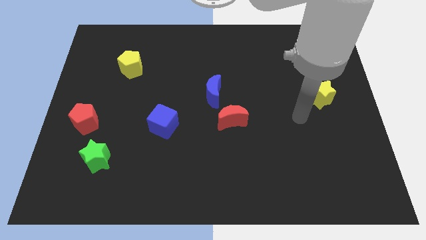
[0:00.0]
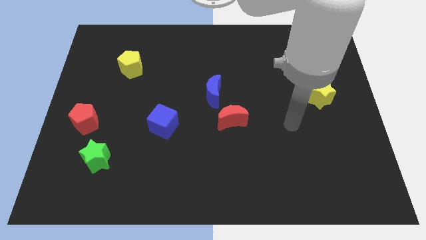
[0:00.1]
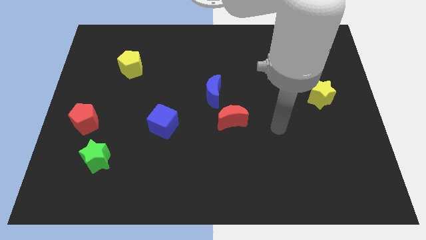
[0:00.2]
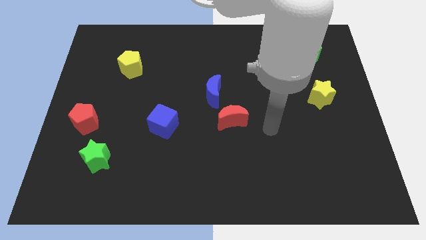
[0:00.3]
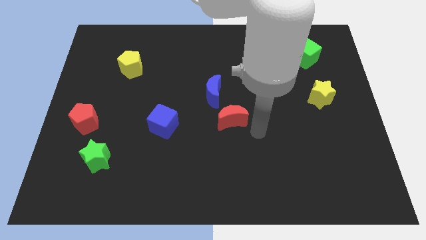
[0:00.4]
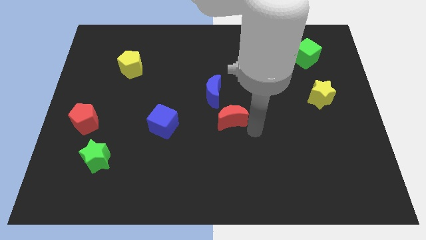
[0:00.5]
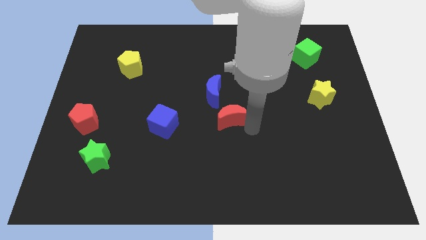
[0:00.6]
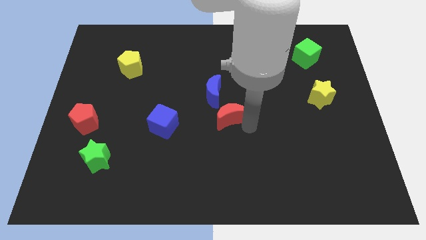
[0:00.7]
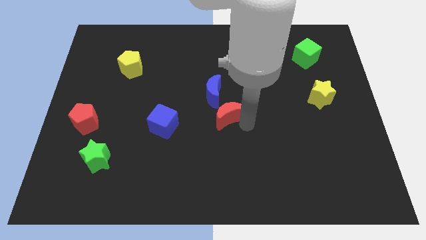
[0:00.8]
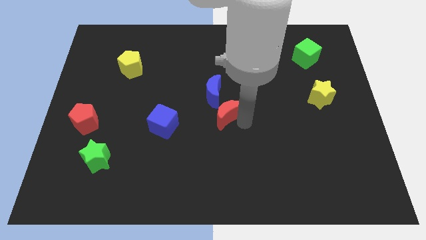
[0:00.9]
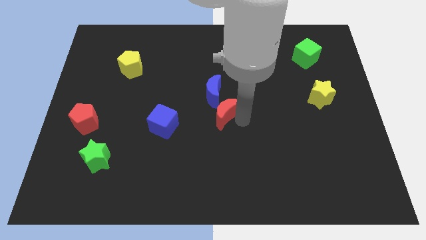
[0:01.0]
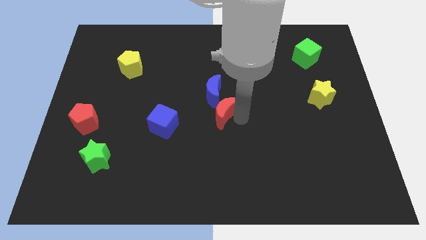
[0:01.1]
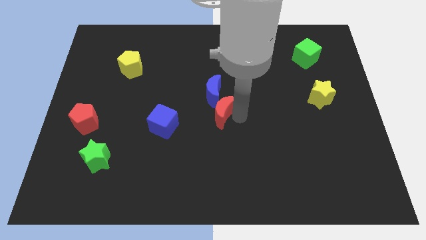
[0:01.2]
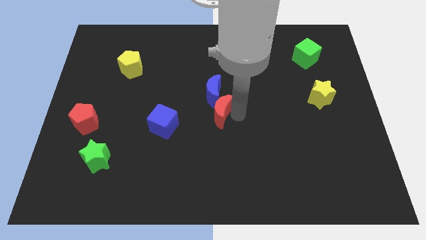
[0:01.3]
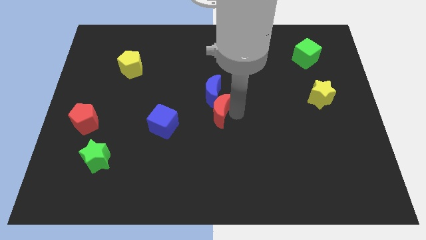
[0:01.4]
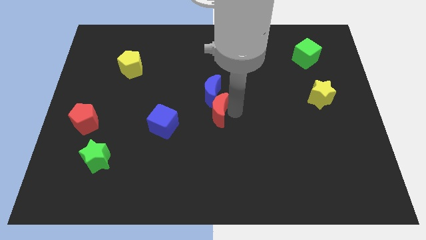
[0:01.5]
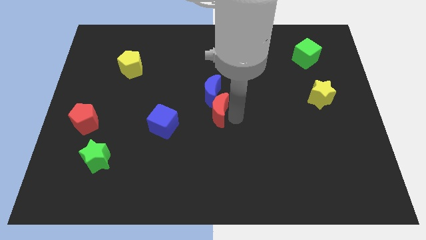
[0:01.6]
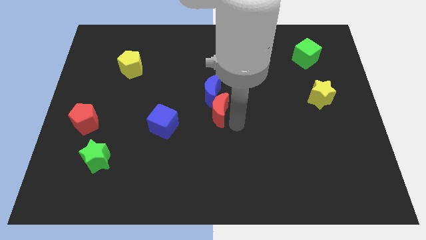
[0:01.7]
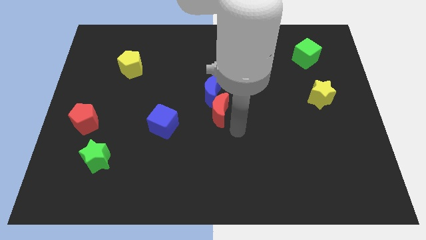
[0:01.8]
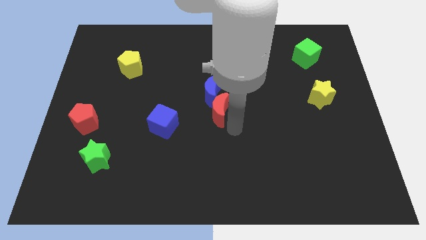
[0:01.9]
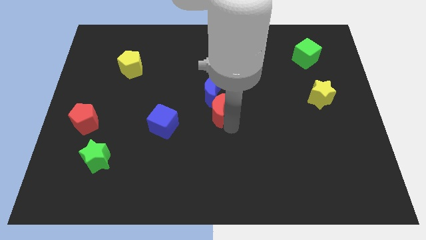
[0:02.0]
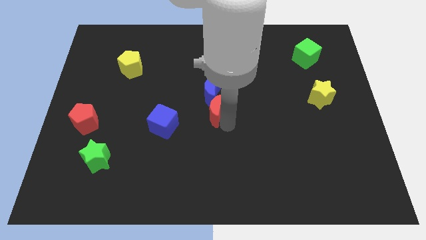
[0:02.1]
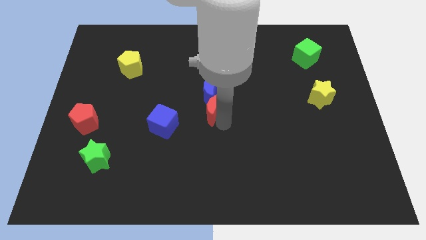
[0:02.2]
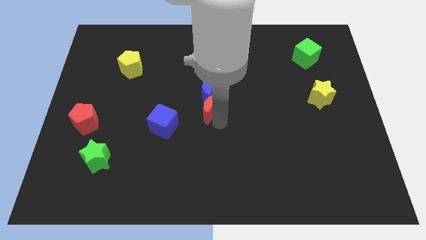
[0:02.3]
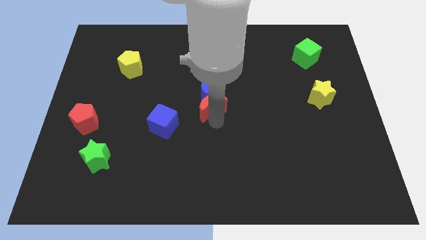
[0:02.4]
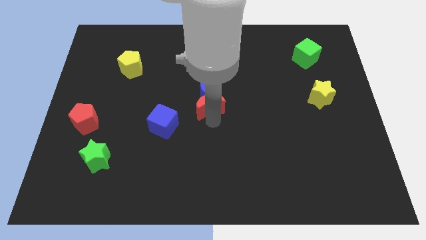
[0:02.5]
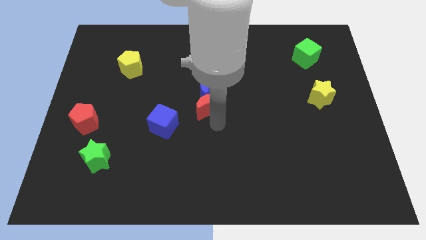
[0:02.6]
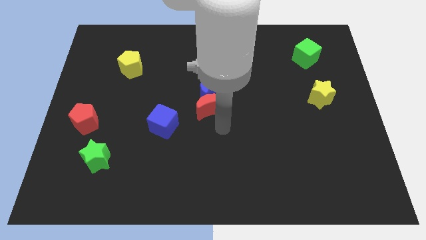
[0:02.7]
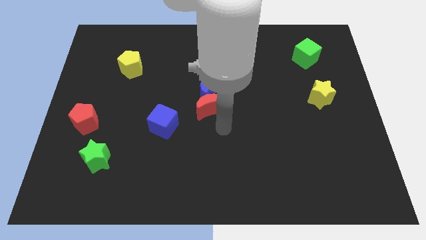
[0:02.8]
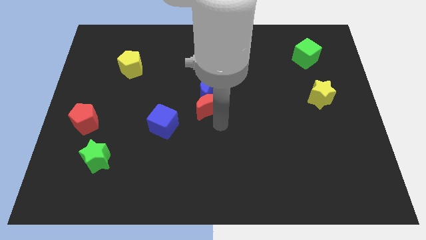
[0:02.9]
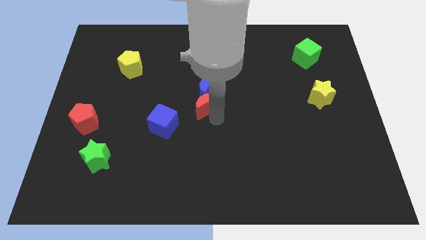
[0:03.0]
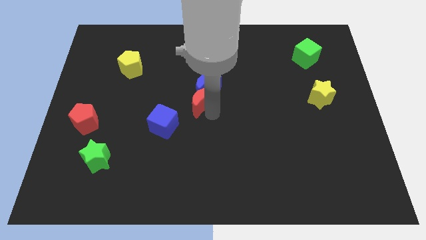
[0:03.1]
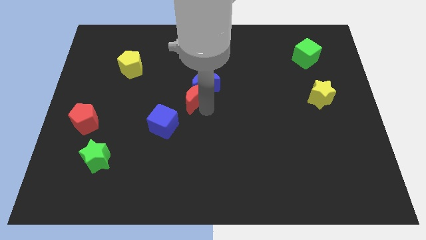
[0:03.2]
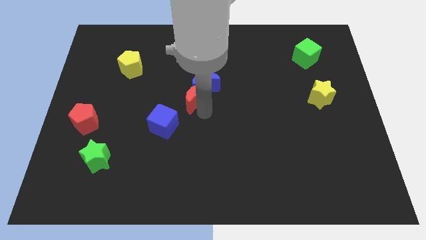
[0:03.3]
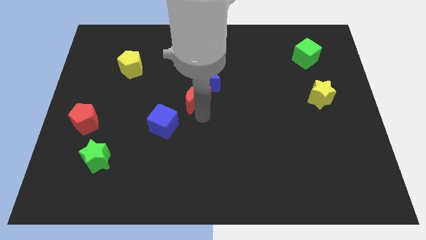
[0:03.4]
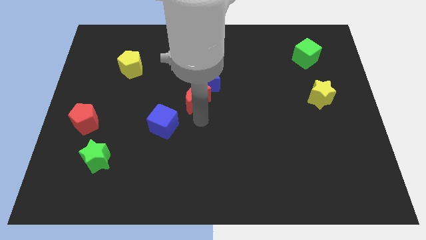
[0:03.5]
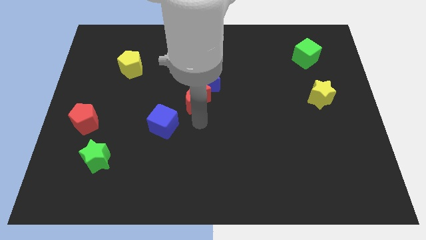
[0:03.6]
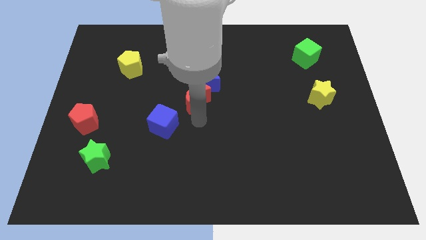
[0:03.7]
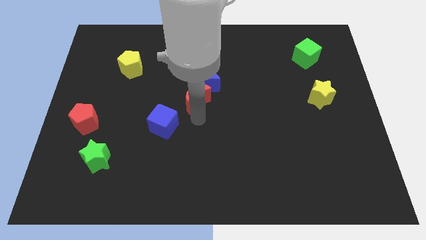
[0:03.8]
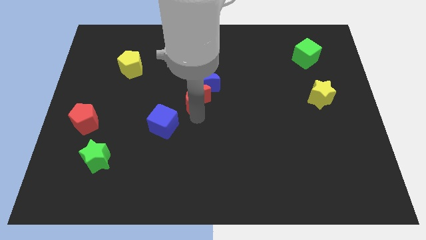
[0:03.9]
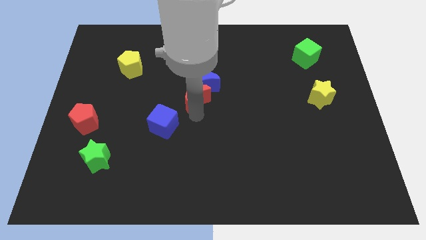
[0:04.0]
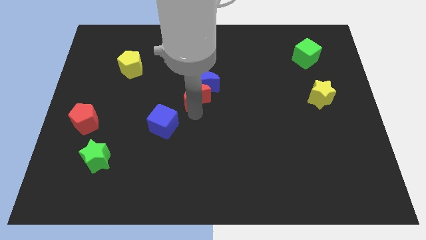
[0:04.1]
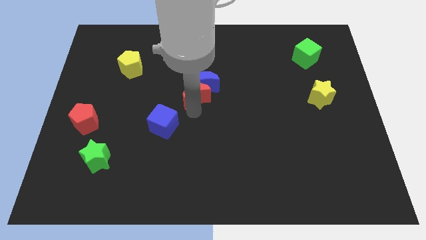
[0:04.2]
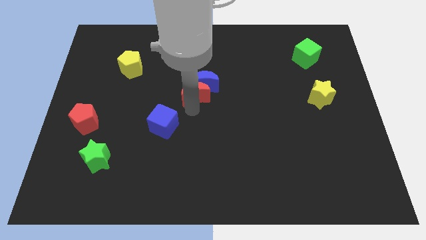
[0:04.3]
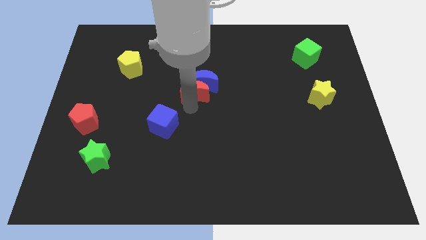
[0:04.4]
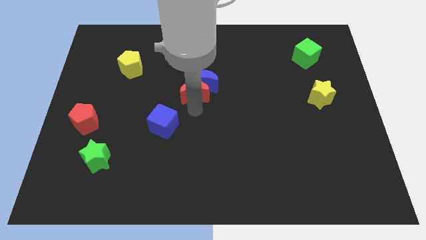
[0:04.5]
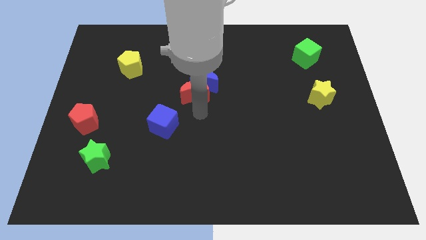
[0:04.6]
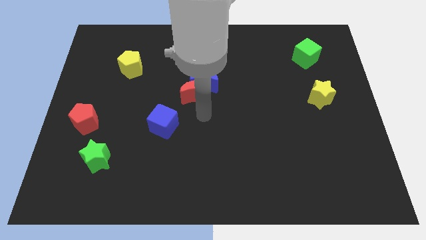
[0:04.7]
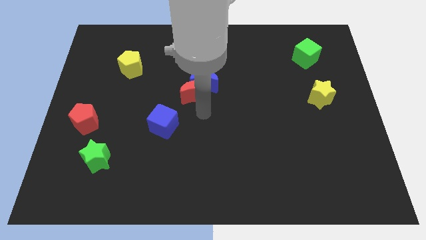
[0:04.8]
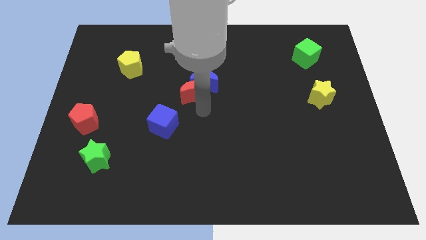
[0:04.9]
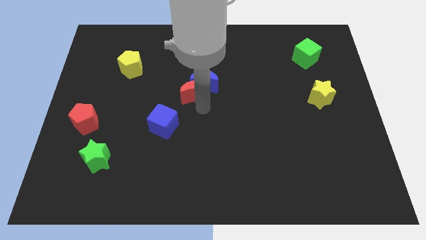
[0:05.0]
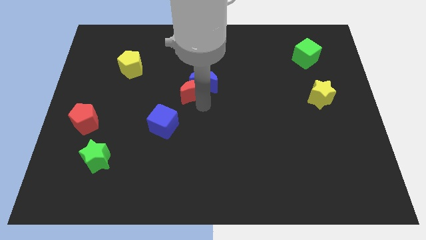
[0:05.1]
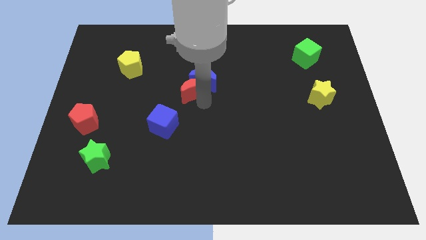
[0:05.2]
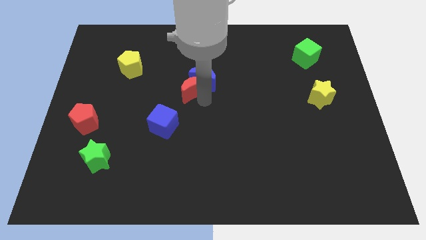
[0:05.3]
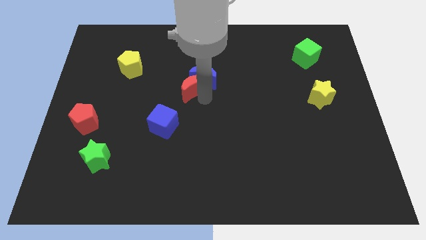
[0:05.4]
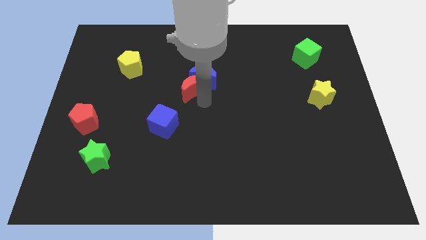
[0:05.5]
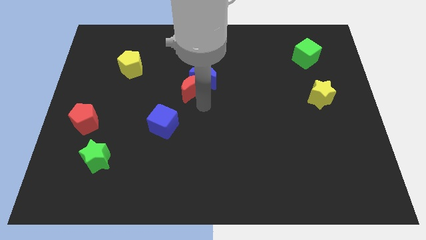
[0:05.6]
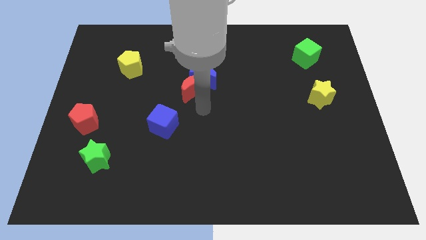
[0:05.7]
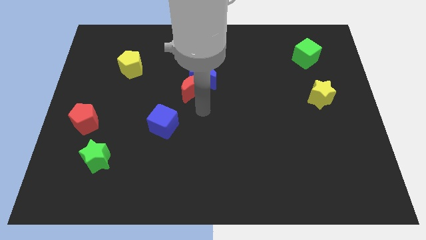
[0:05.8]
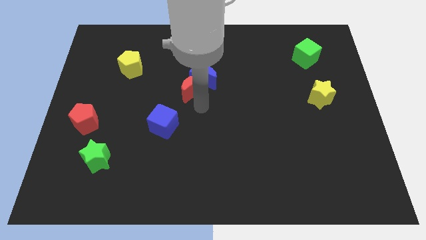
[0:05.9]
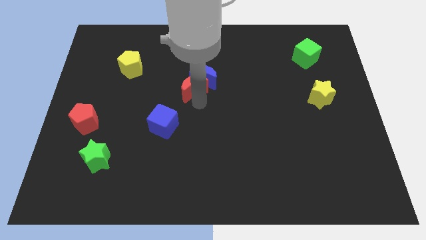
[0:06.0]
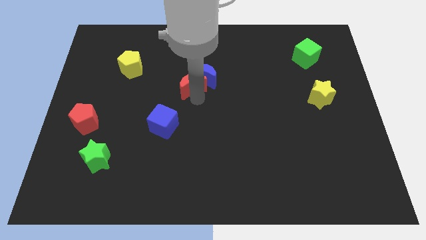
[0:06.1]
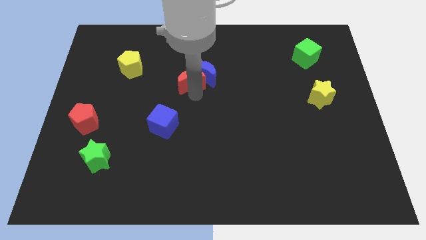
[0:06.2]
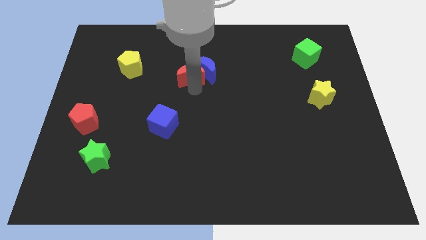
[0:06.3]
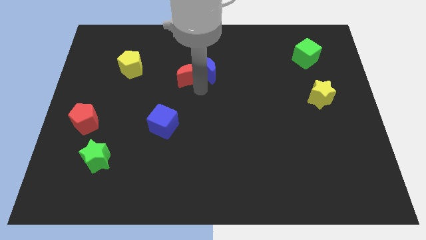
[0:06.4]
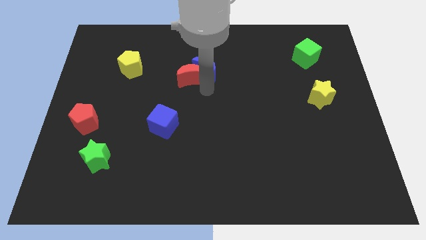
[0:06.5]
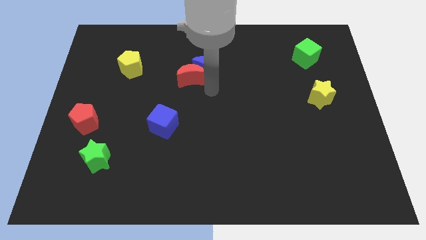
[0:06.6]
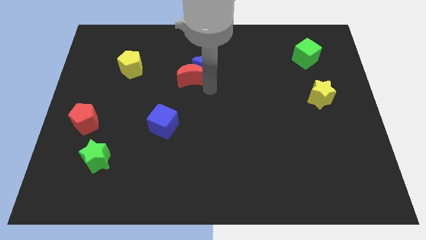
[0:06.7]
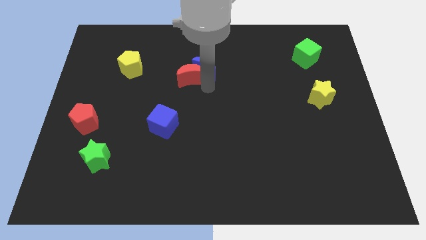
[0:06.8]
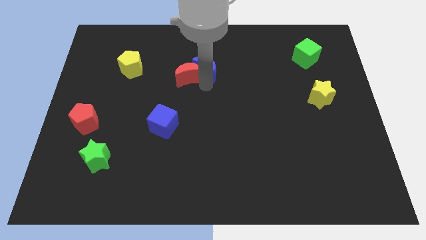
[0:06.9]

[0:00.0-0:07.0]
put the red moon to the right side of the yellow pentagon
